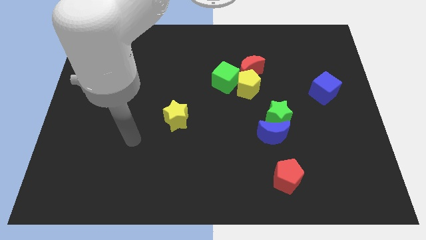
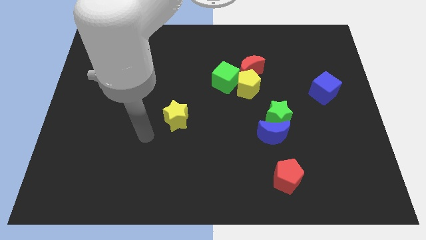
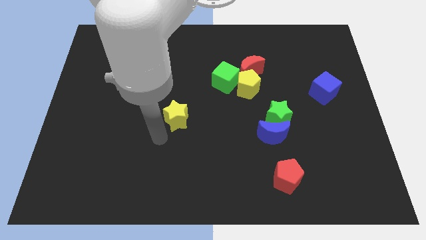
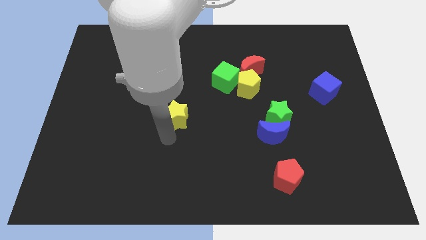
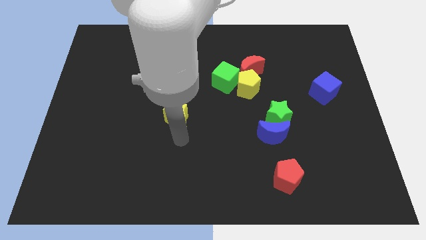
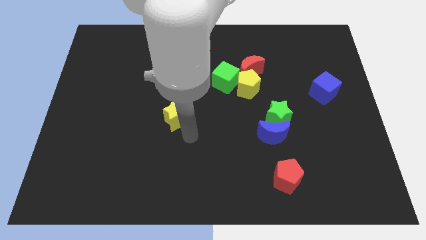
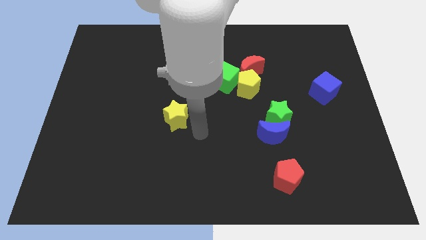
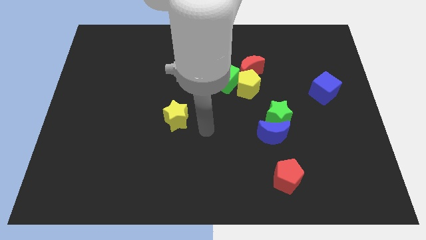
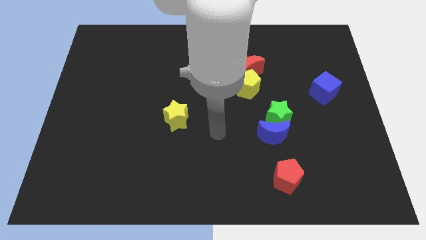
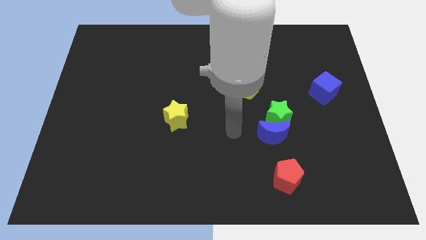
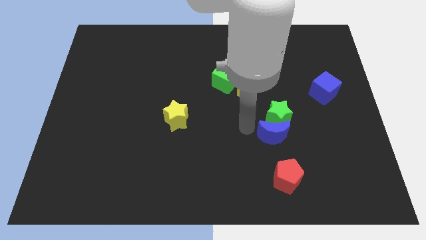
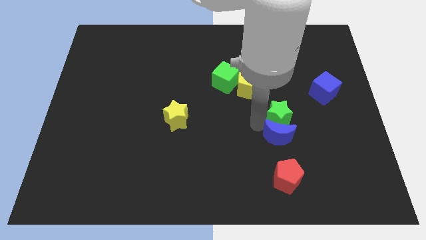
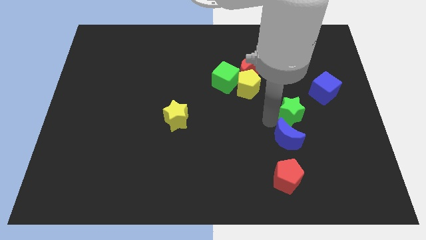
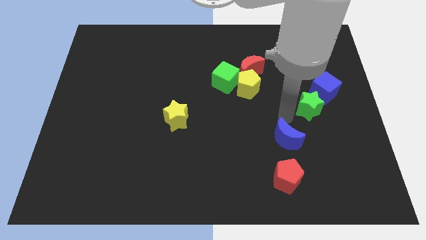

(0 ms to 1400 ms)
move the blue moon away from the green star

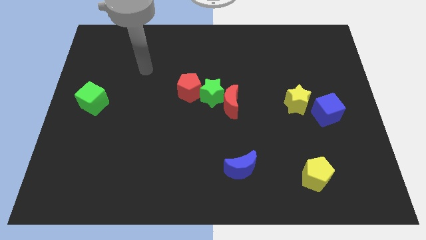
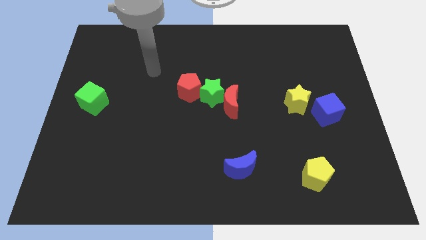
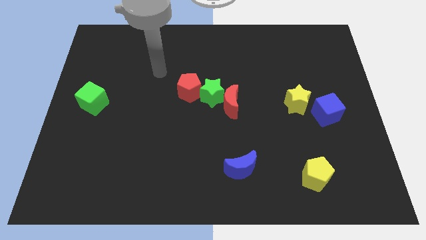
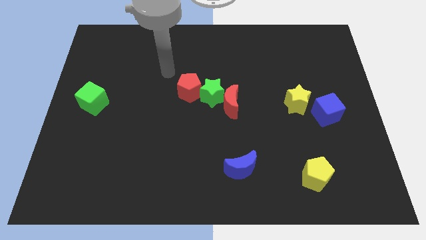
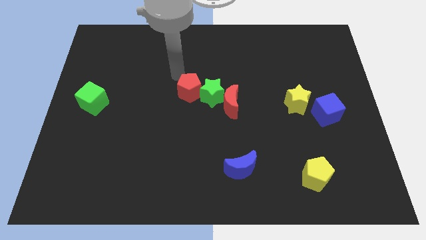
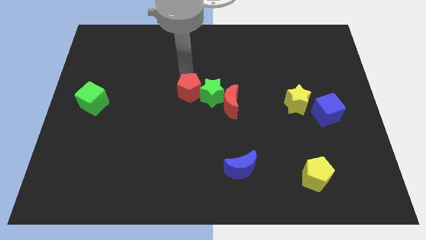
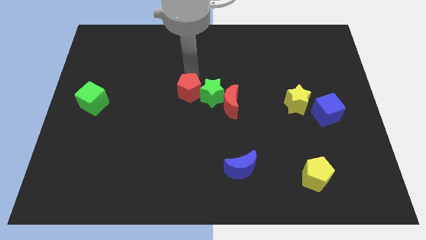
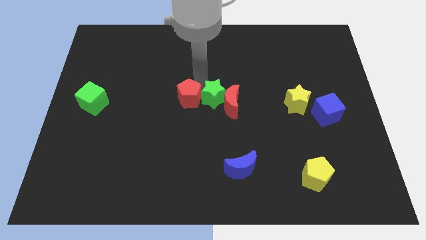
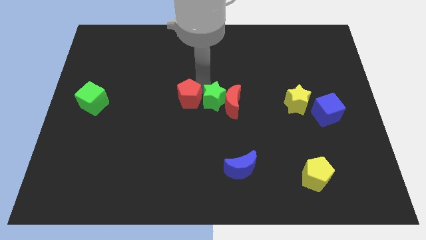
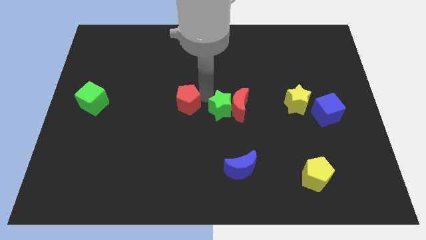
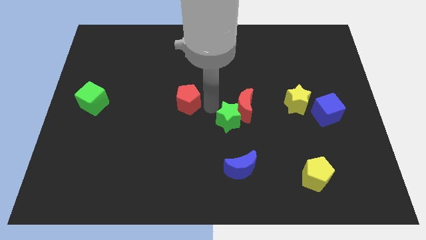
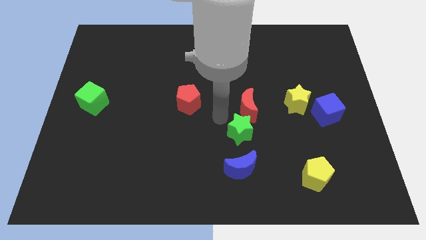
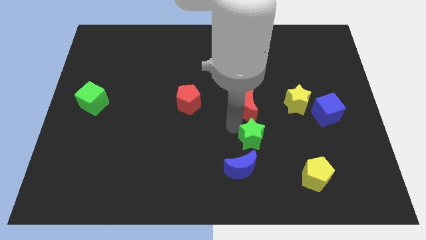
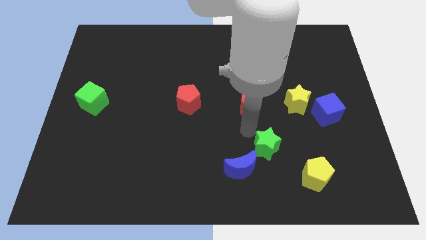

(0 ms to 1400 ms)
separate the red moon from the green star

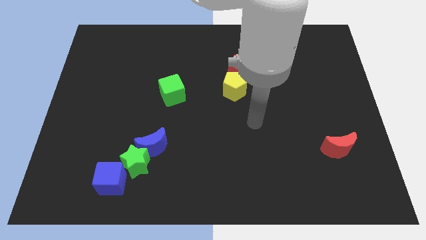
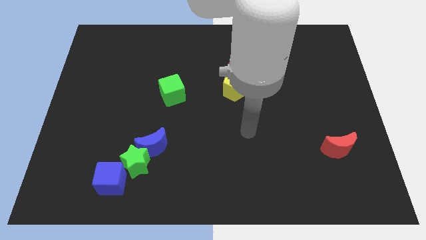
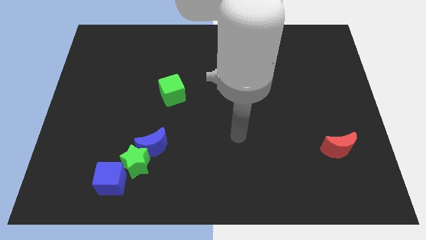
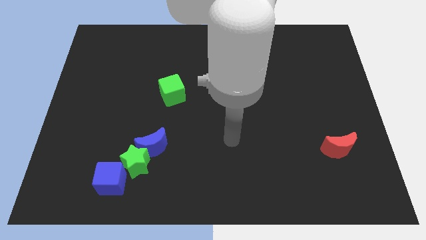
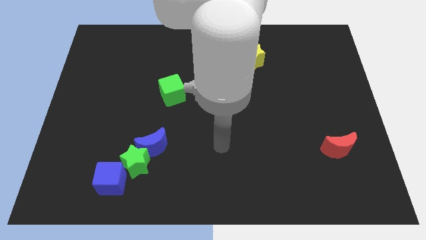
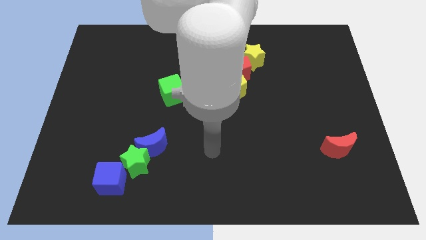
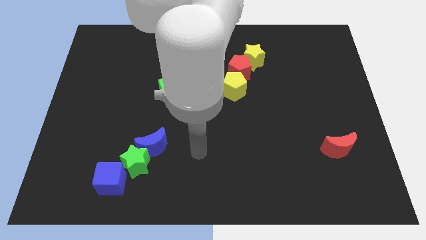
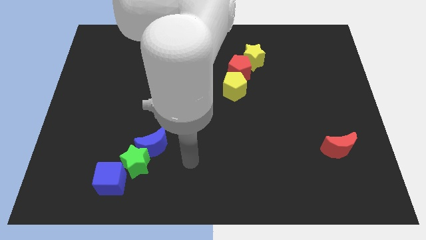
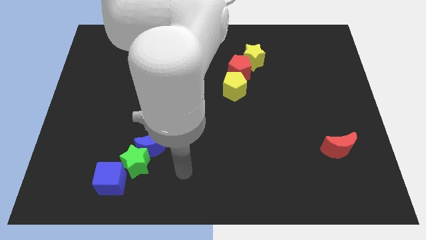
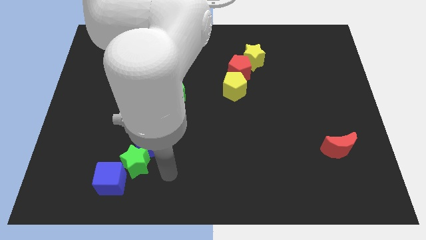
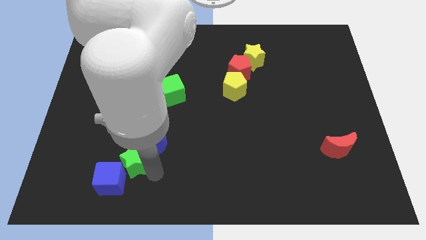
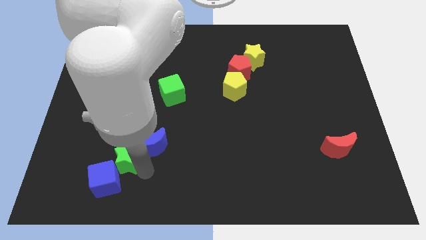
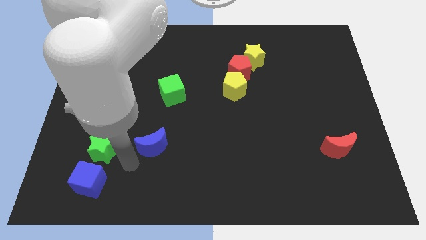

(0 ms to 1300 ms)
pull the blue moon apart from the green star

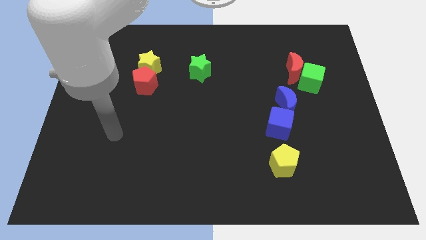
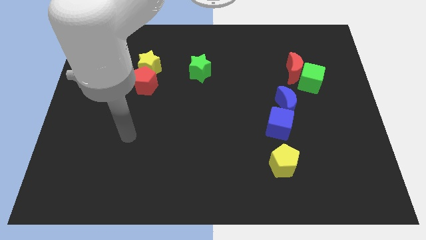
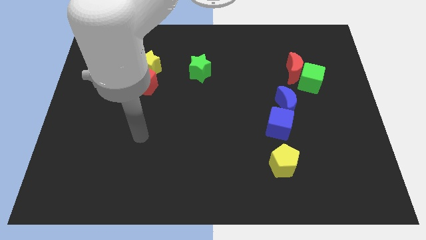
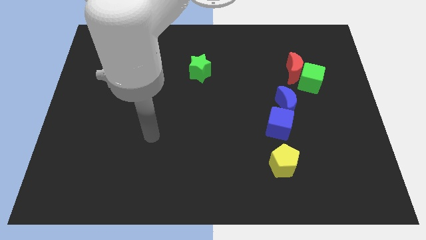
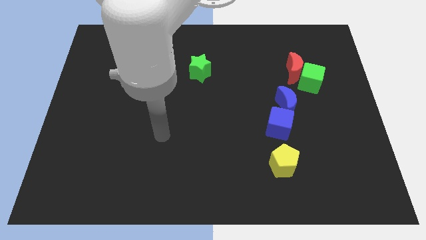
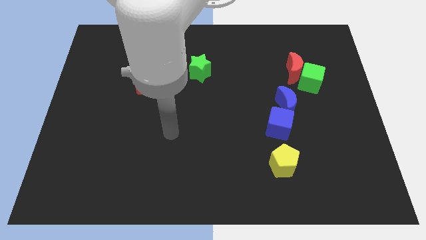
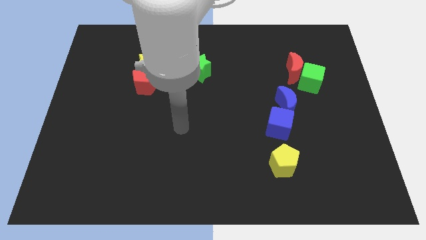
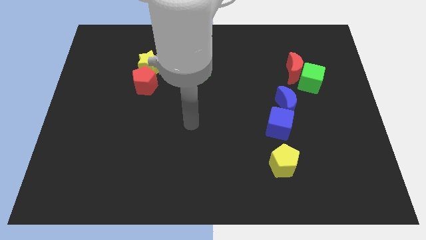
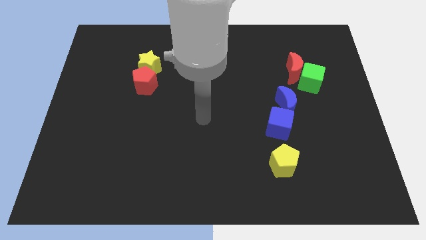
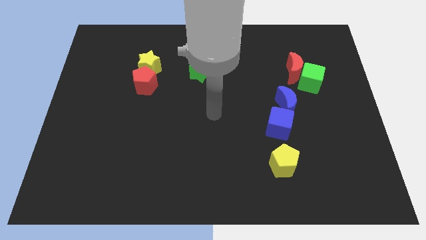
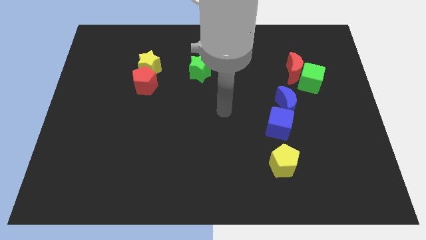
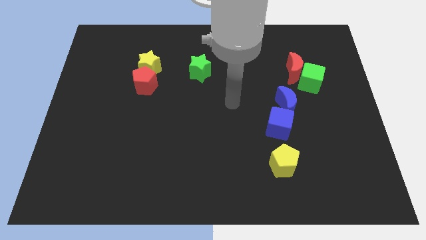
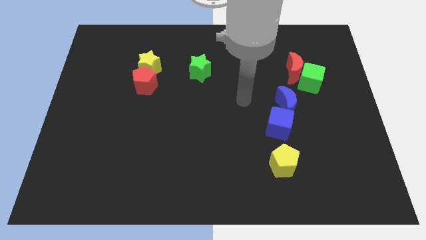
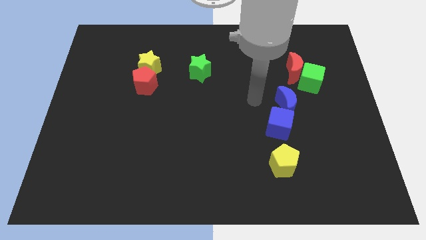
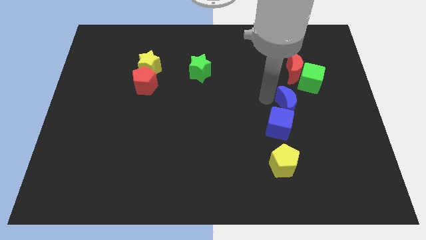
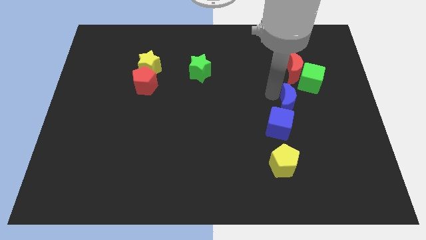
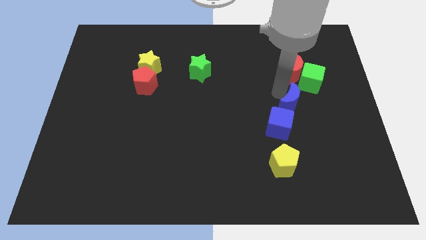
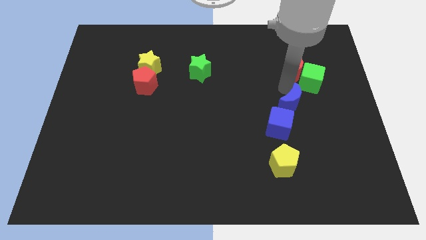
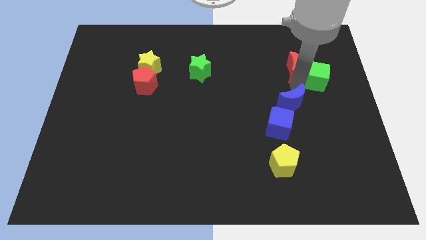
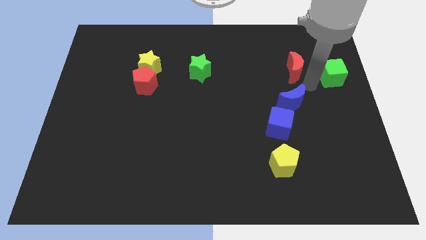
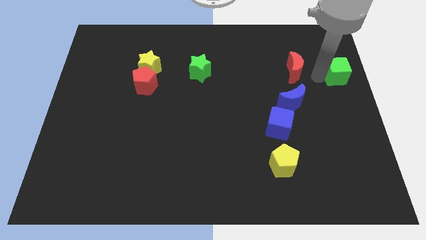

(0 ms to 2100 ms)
separate the red moon from the green cube

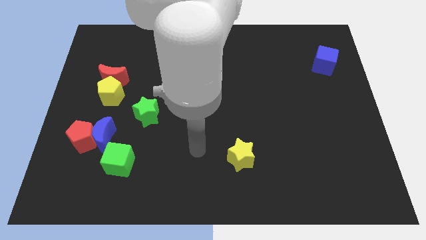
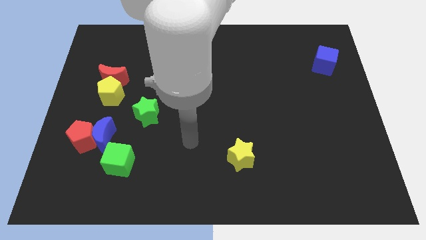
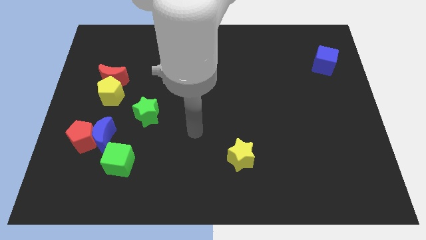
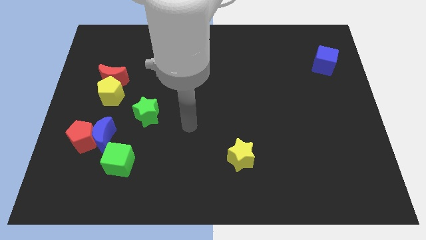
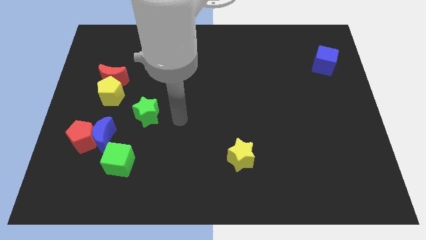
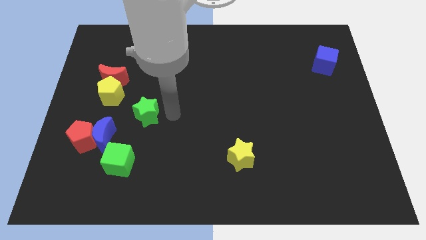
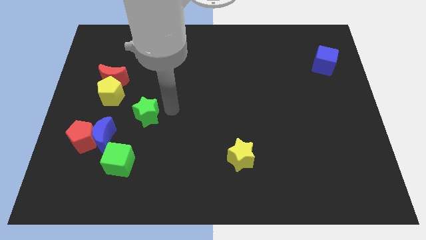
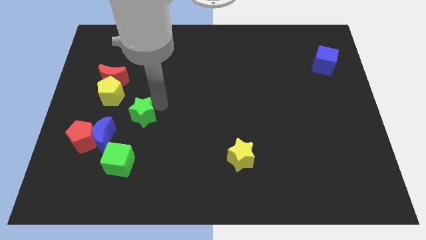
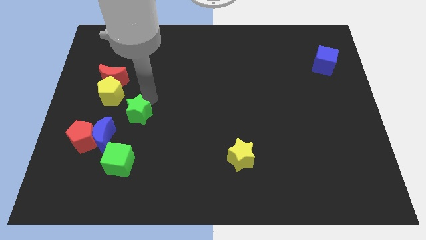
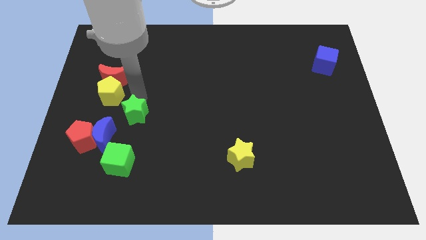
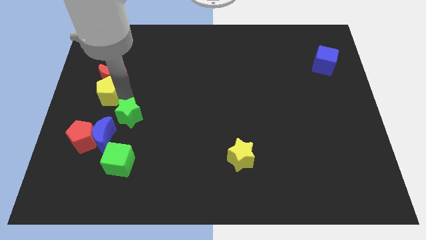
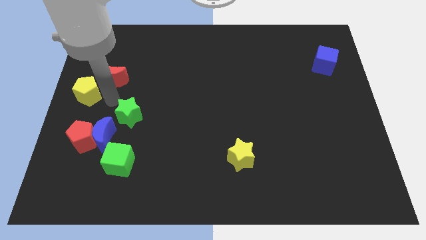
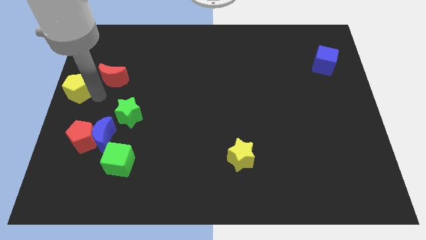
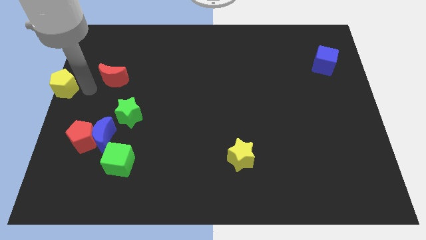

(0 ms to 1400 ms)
move the red moon away from the yellow pentagon

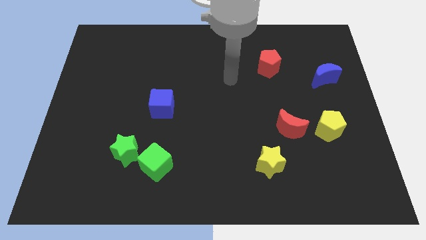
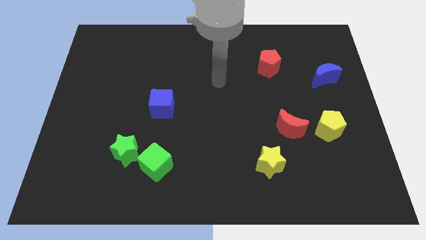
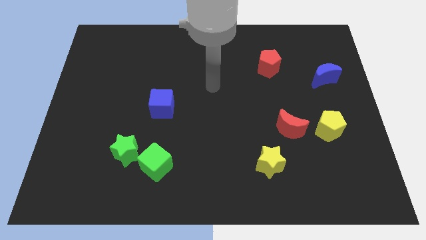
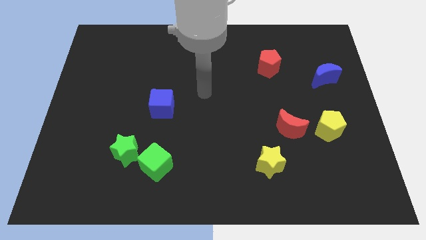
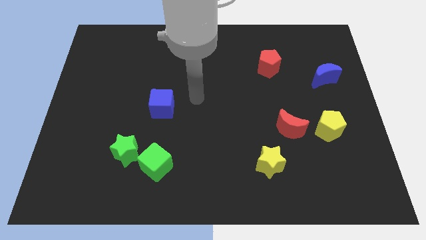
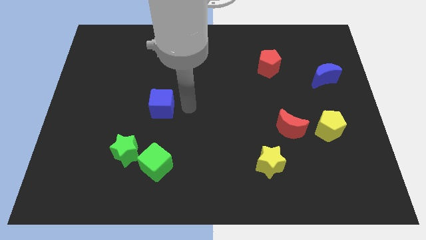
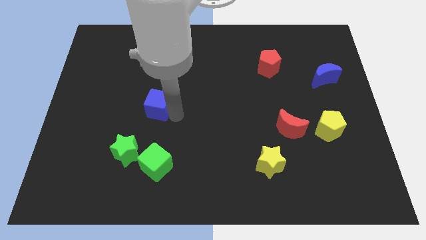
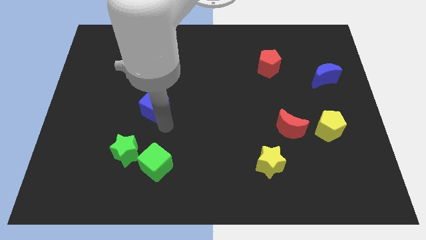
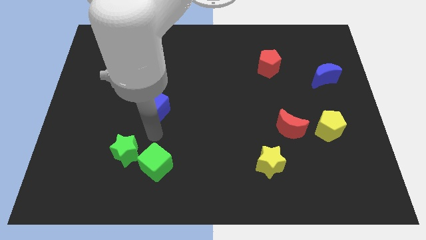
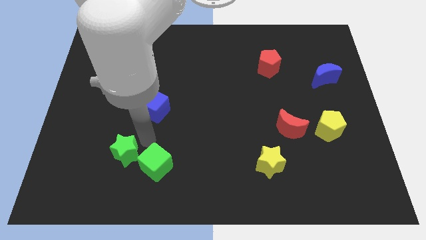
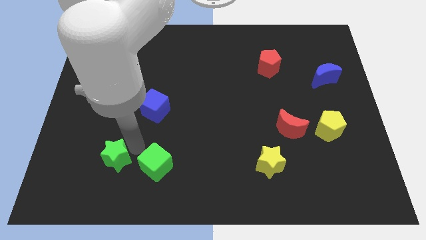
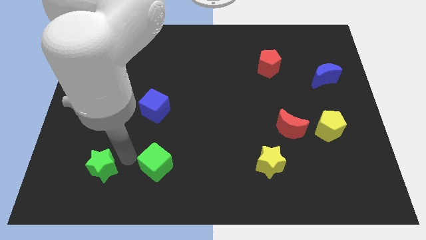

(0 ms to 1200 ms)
pull the green cube apart from the green star

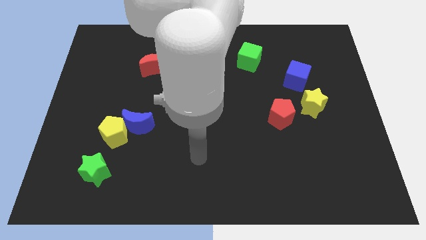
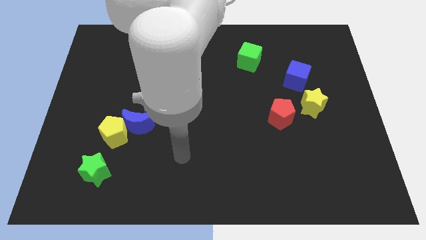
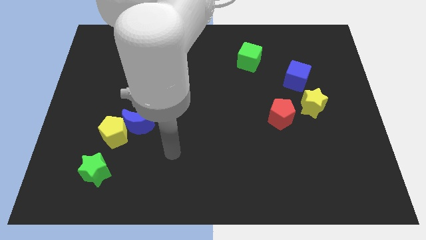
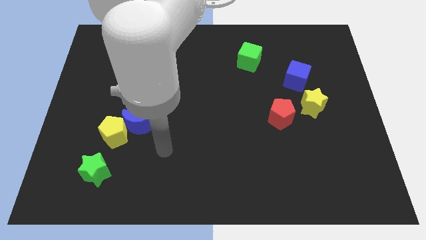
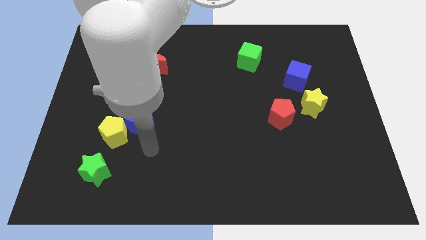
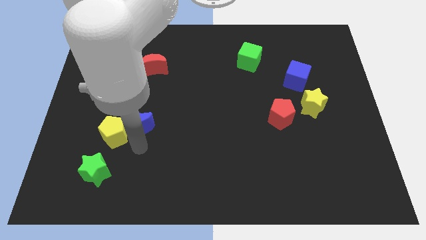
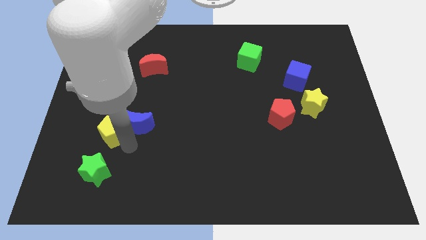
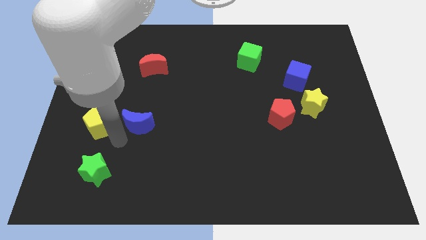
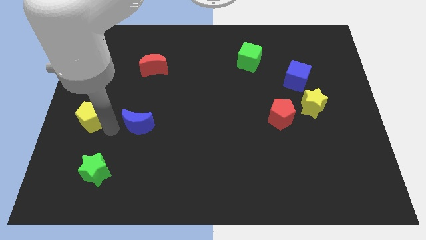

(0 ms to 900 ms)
pull the blue moon apart from the yellow pentagon
